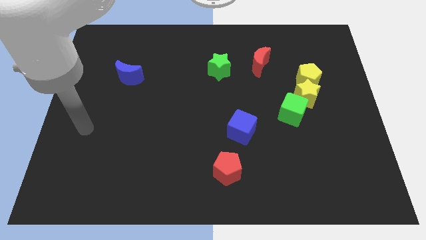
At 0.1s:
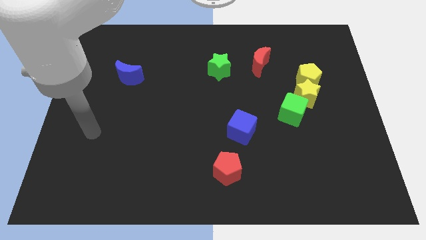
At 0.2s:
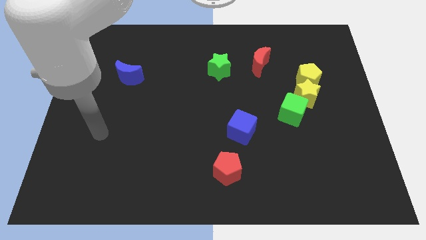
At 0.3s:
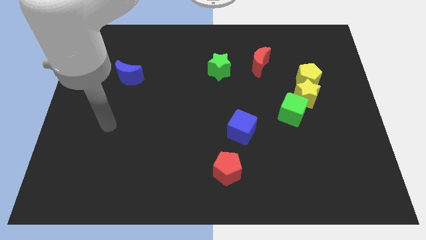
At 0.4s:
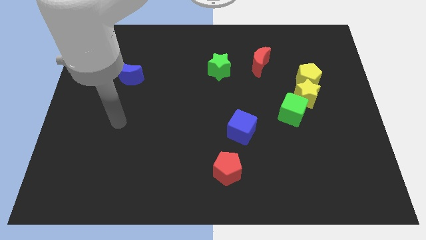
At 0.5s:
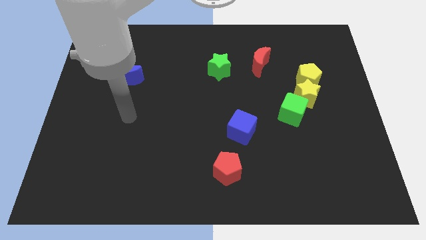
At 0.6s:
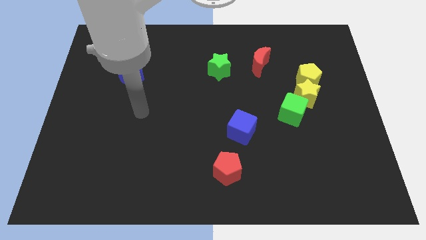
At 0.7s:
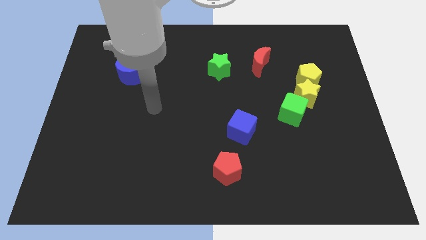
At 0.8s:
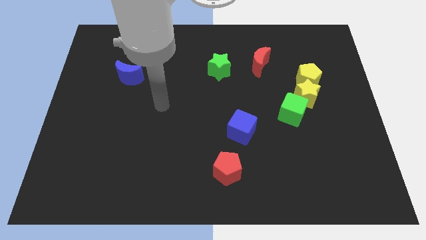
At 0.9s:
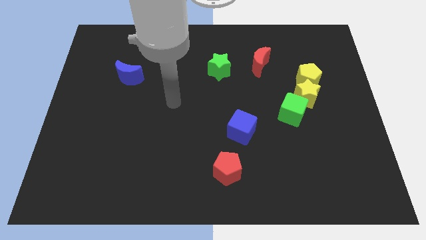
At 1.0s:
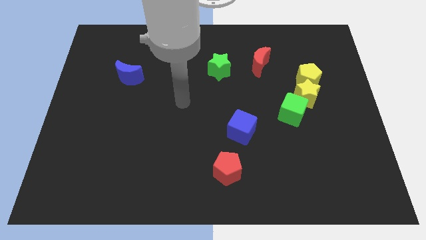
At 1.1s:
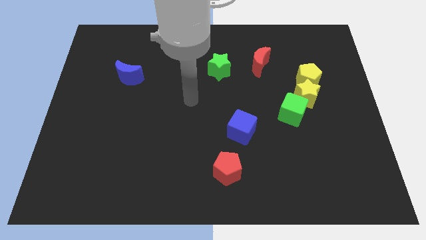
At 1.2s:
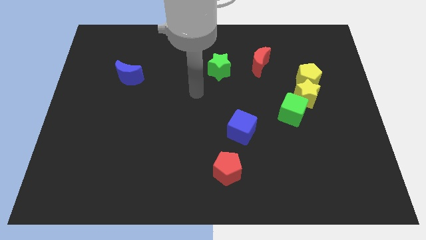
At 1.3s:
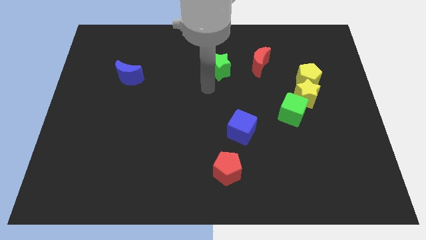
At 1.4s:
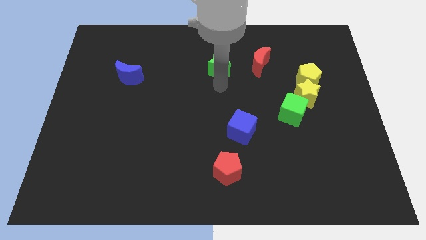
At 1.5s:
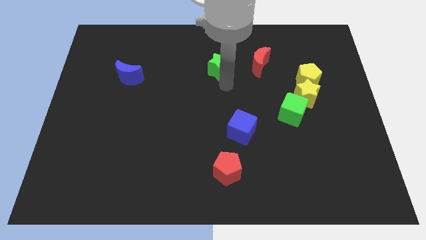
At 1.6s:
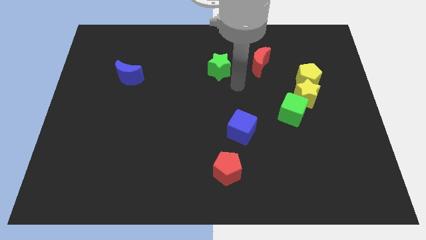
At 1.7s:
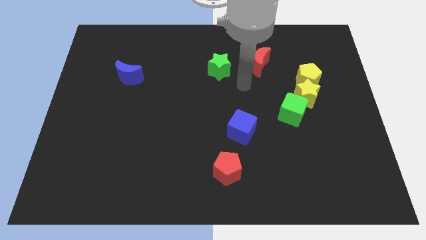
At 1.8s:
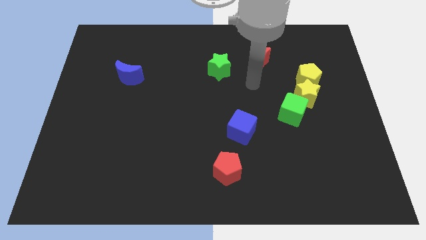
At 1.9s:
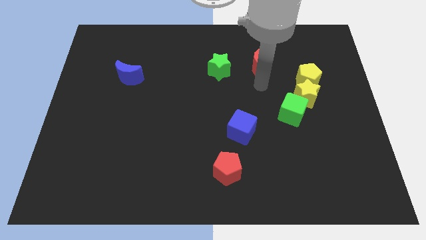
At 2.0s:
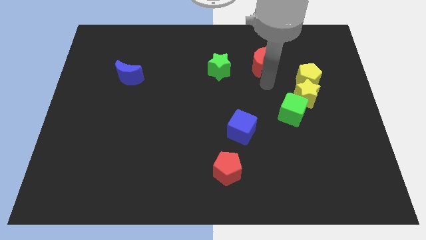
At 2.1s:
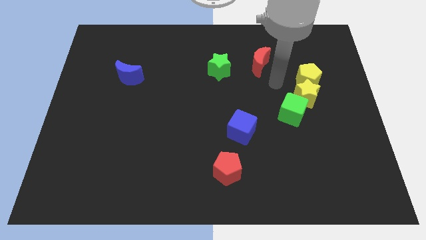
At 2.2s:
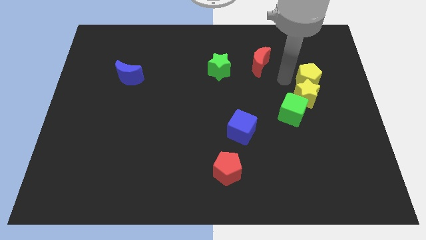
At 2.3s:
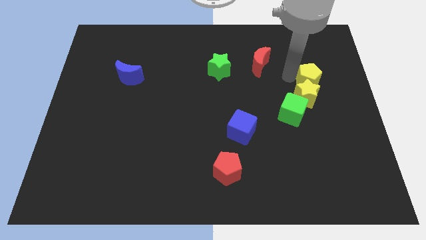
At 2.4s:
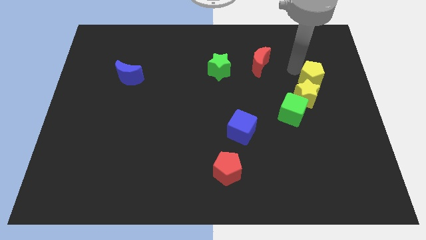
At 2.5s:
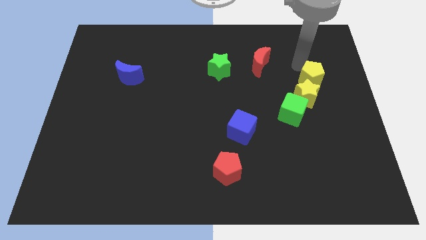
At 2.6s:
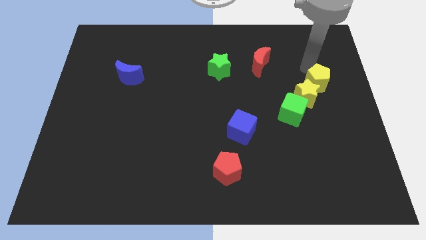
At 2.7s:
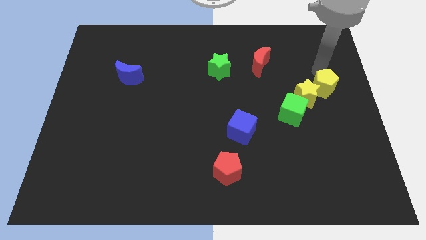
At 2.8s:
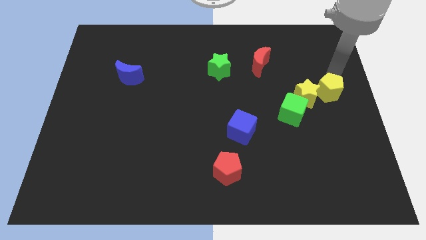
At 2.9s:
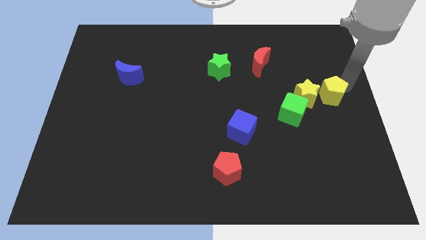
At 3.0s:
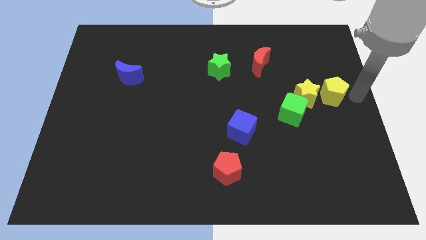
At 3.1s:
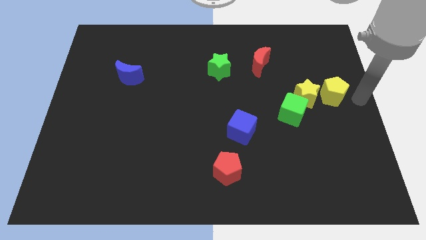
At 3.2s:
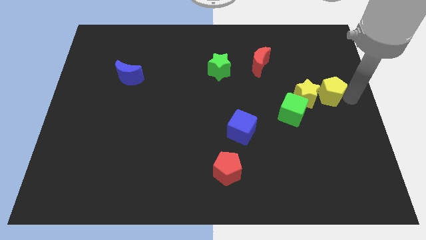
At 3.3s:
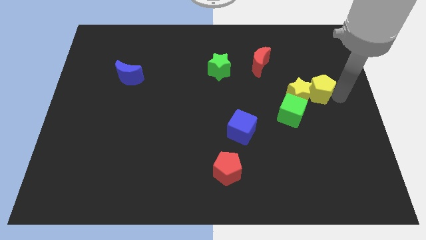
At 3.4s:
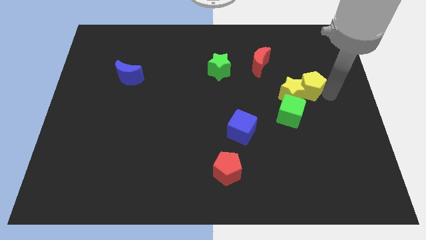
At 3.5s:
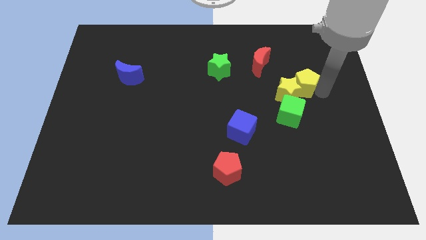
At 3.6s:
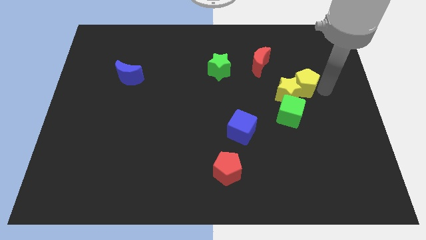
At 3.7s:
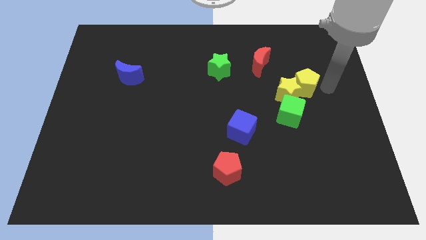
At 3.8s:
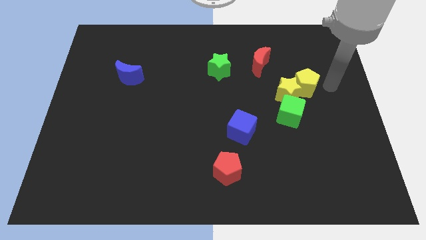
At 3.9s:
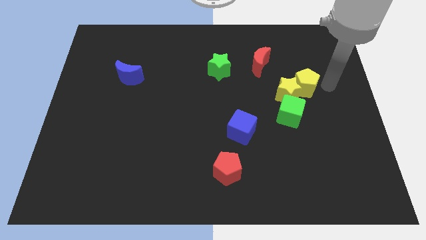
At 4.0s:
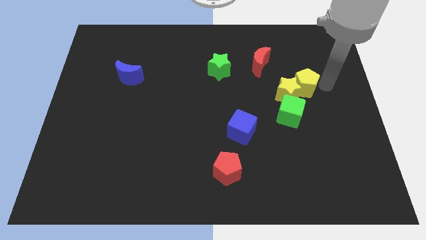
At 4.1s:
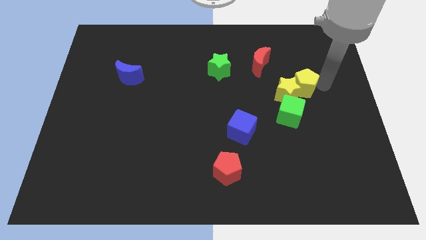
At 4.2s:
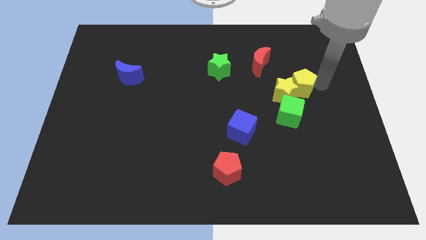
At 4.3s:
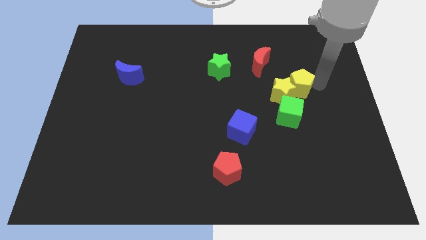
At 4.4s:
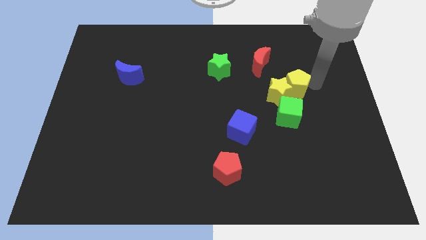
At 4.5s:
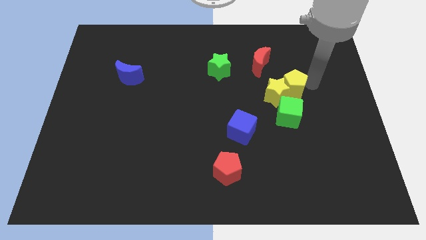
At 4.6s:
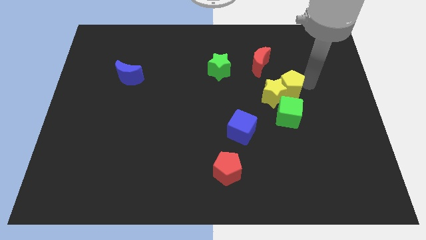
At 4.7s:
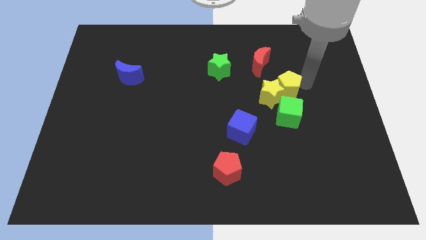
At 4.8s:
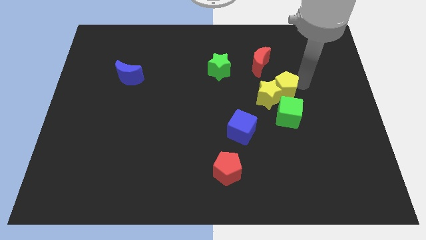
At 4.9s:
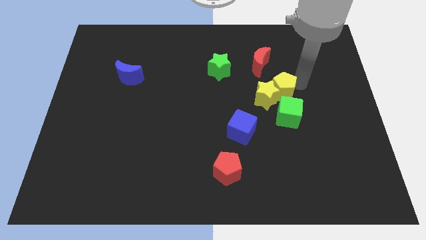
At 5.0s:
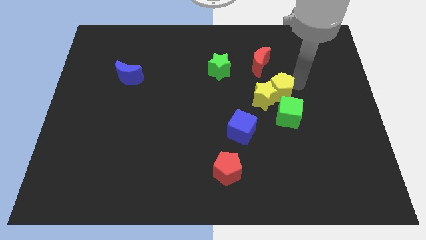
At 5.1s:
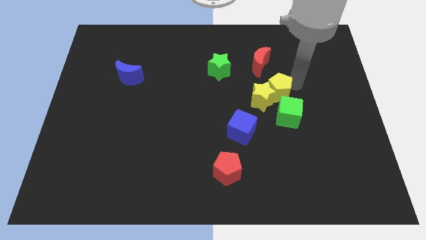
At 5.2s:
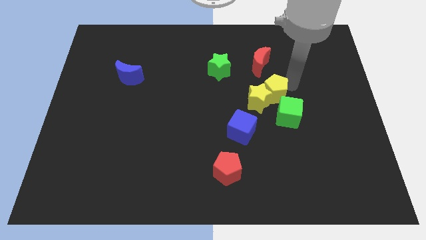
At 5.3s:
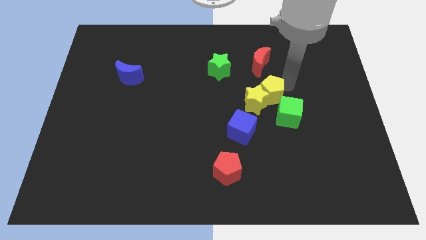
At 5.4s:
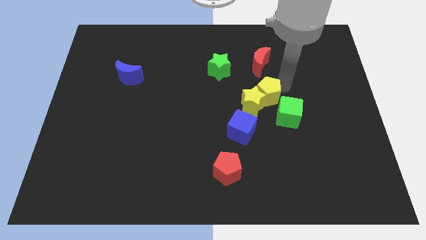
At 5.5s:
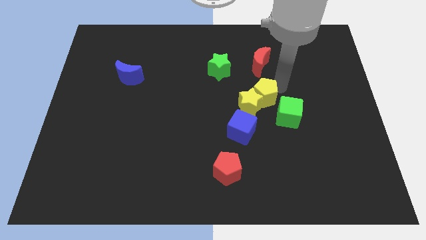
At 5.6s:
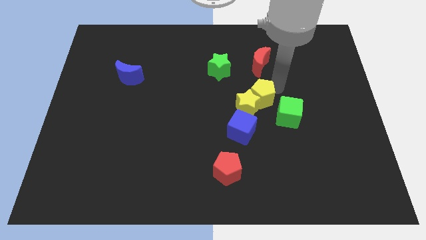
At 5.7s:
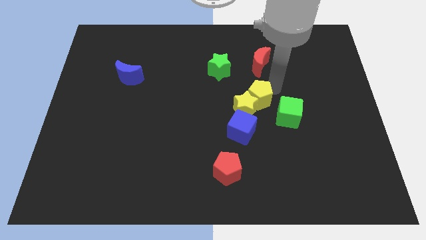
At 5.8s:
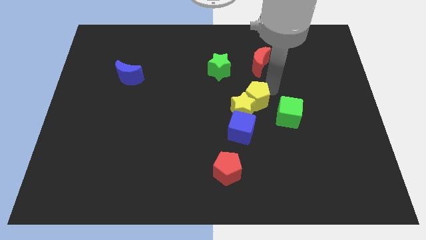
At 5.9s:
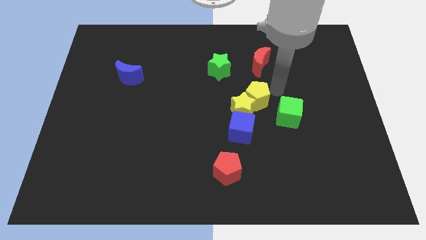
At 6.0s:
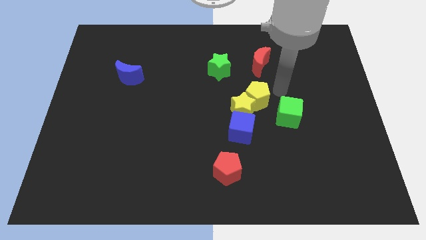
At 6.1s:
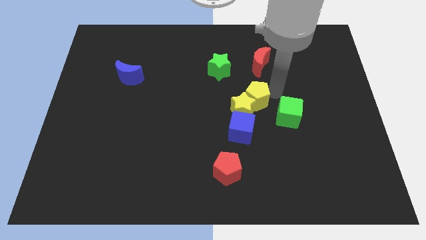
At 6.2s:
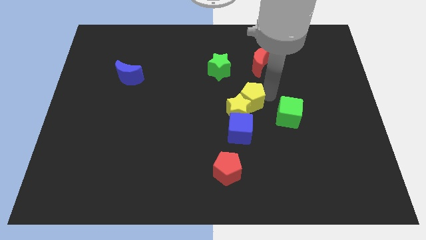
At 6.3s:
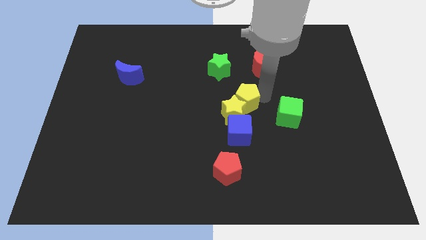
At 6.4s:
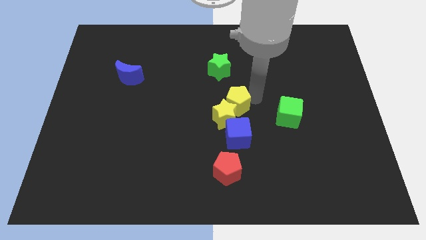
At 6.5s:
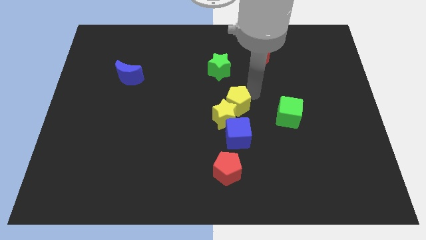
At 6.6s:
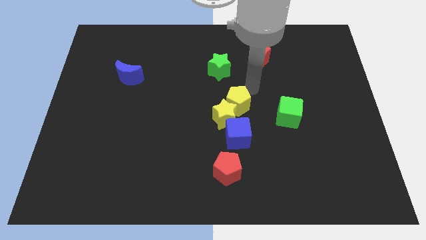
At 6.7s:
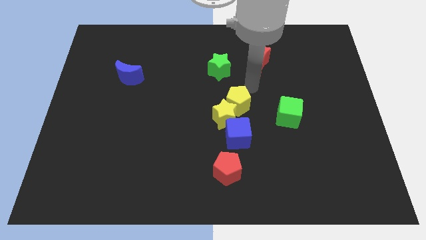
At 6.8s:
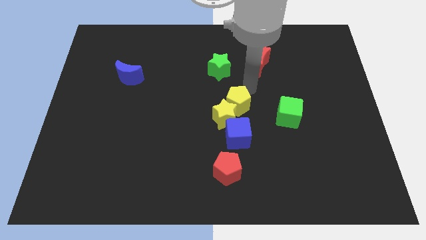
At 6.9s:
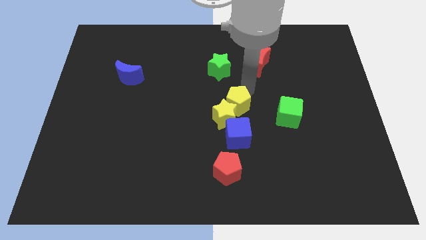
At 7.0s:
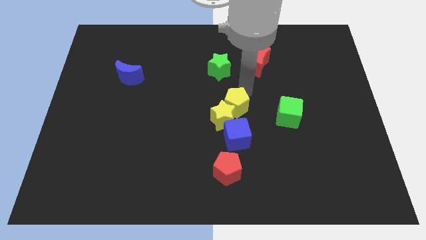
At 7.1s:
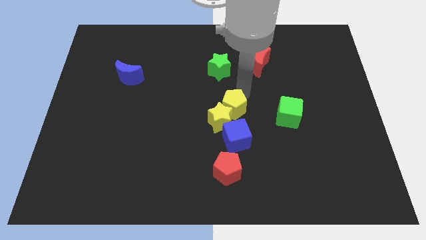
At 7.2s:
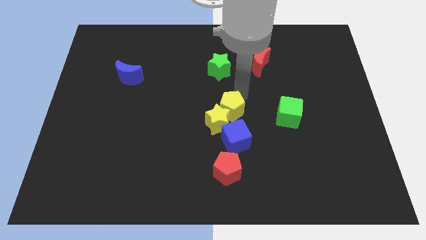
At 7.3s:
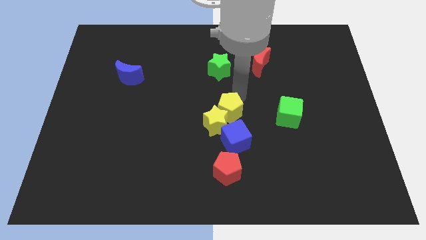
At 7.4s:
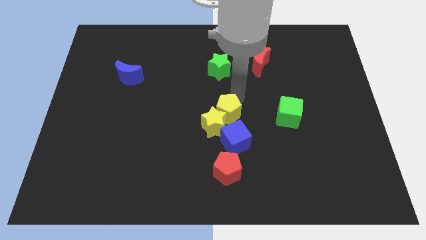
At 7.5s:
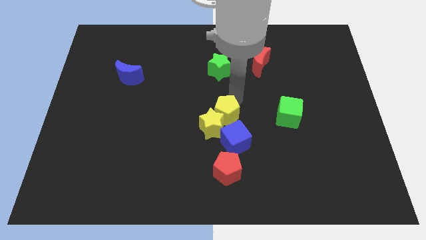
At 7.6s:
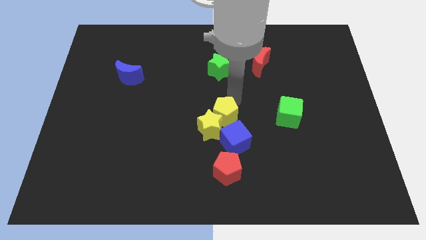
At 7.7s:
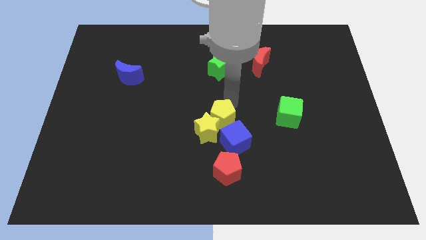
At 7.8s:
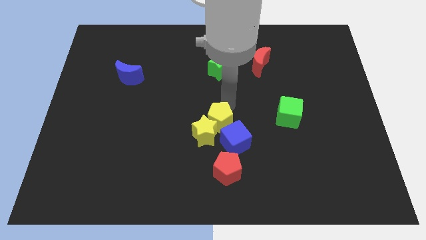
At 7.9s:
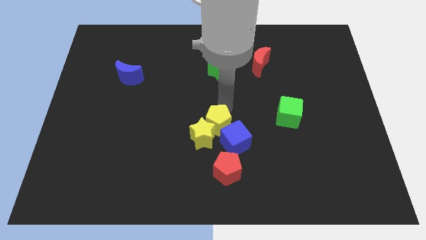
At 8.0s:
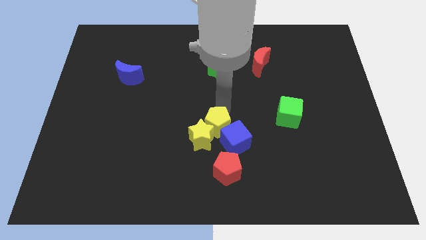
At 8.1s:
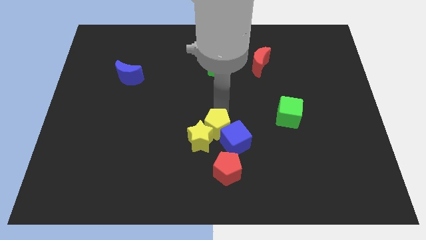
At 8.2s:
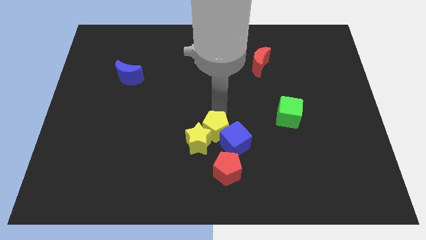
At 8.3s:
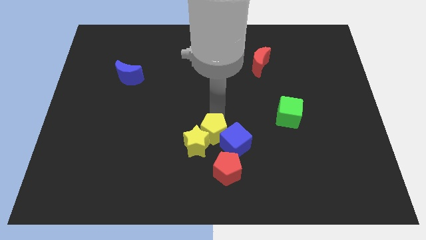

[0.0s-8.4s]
move the yellow pentagon to the top left of the red pentagon
